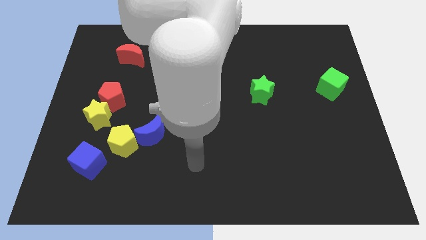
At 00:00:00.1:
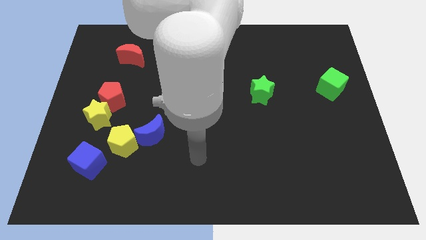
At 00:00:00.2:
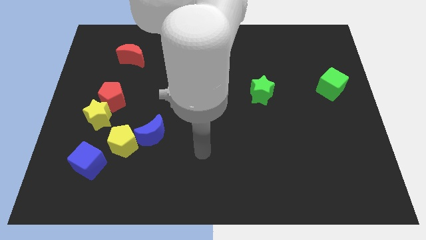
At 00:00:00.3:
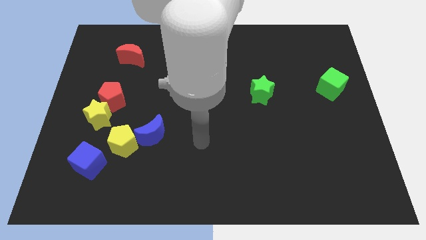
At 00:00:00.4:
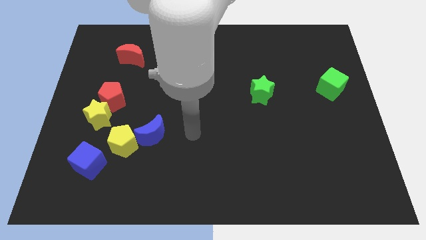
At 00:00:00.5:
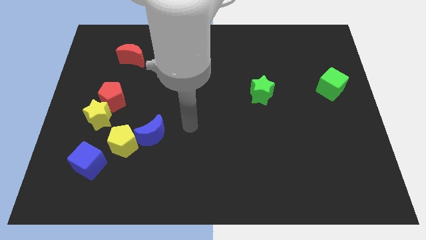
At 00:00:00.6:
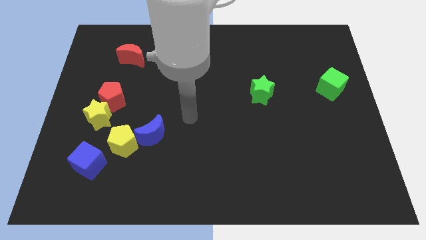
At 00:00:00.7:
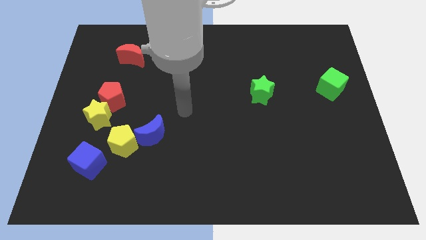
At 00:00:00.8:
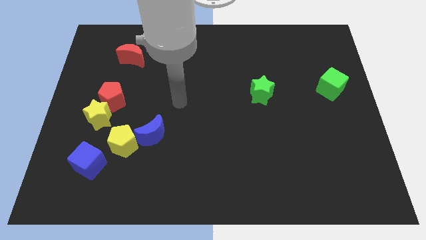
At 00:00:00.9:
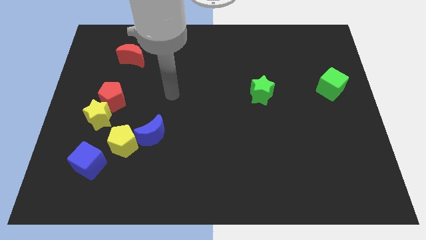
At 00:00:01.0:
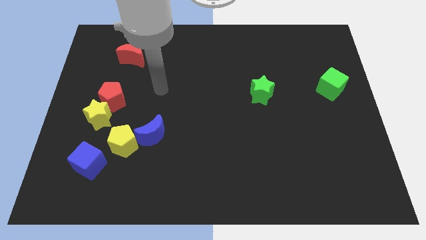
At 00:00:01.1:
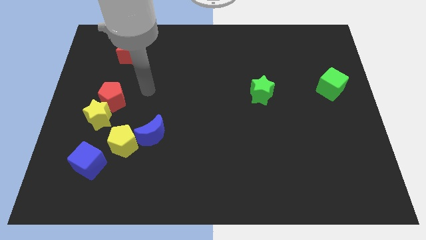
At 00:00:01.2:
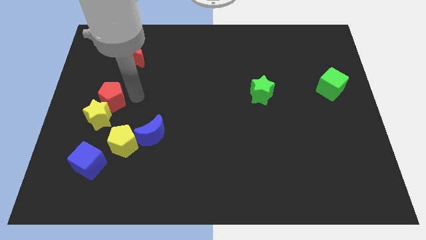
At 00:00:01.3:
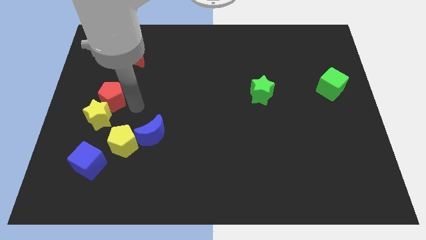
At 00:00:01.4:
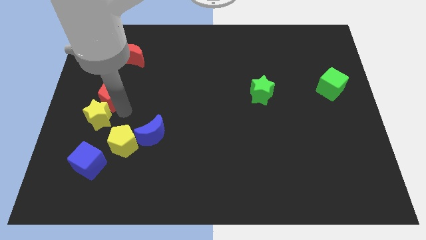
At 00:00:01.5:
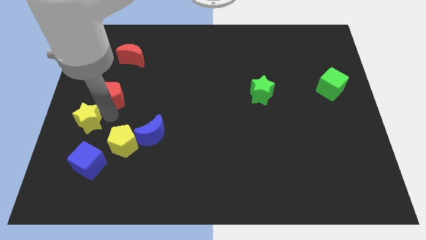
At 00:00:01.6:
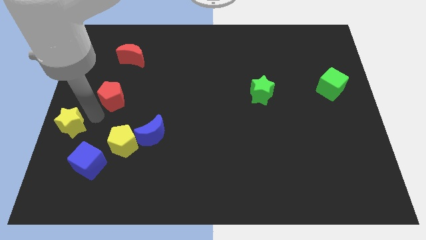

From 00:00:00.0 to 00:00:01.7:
separate the red pentagon from the yellow star

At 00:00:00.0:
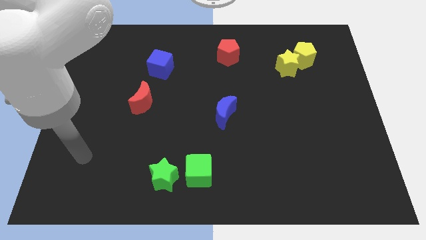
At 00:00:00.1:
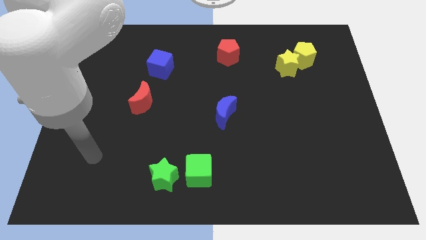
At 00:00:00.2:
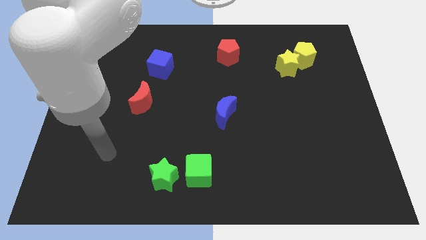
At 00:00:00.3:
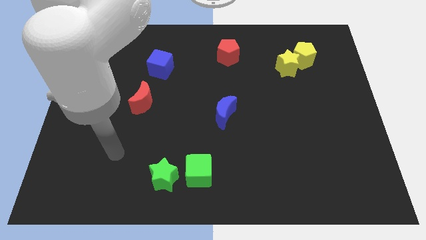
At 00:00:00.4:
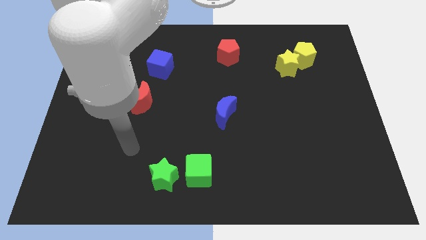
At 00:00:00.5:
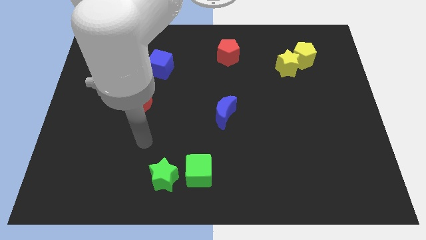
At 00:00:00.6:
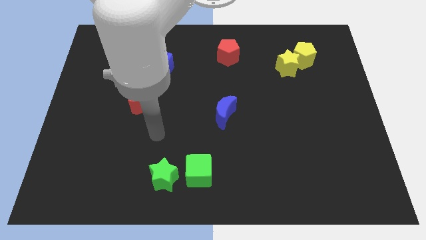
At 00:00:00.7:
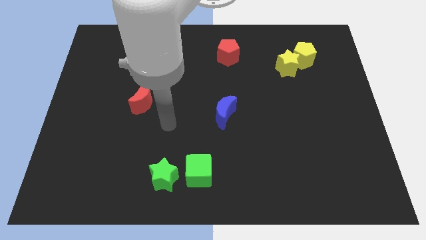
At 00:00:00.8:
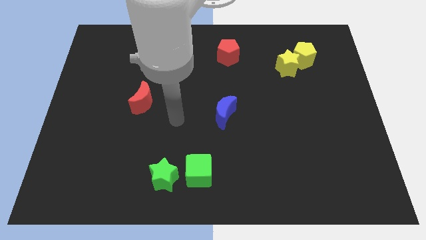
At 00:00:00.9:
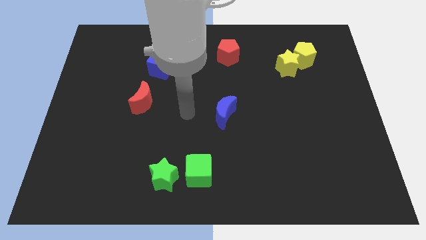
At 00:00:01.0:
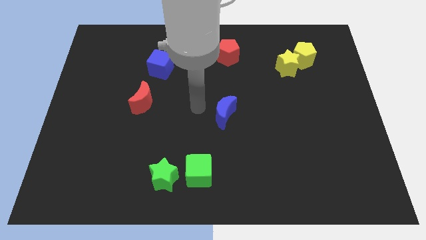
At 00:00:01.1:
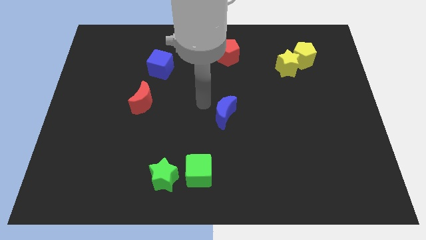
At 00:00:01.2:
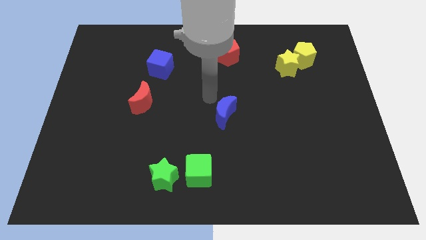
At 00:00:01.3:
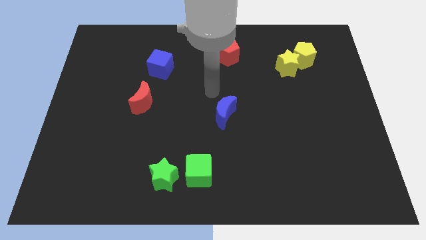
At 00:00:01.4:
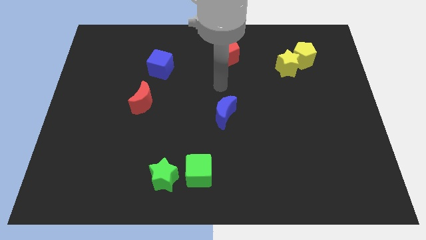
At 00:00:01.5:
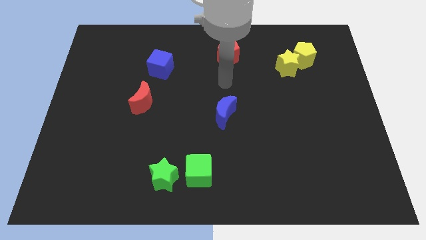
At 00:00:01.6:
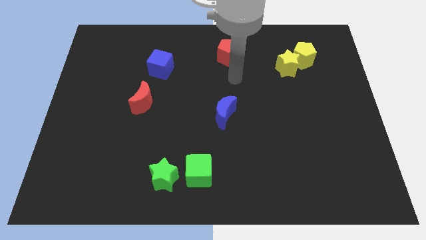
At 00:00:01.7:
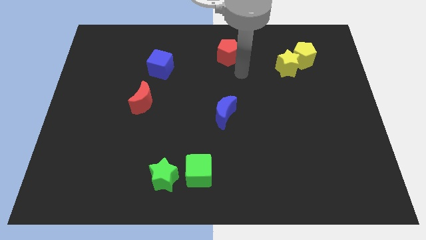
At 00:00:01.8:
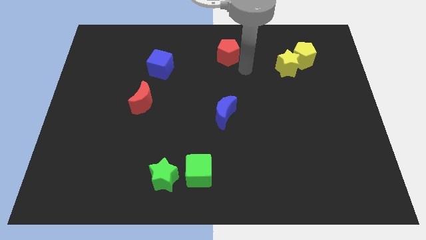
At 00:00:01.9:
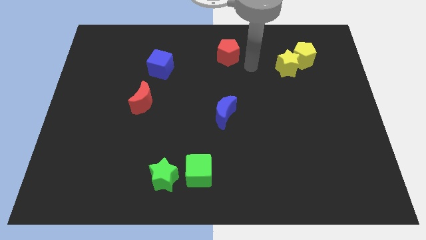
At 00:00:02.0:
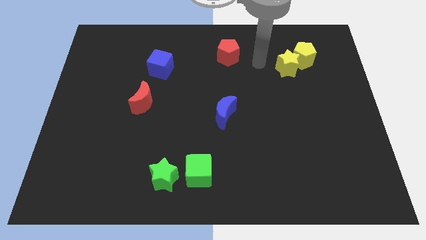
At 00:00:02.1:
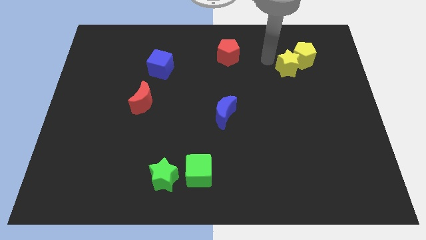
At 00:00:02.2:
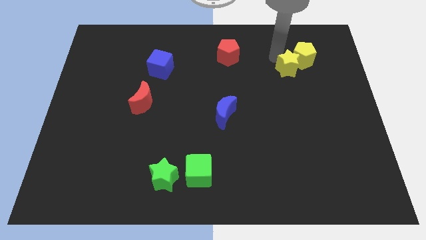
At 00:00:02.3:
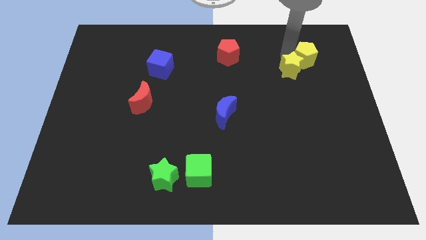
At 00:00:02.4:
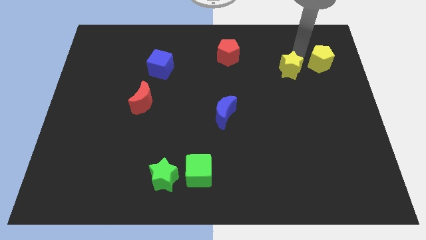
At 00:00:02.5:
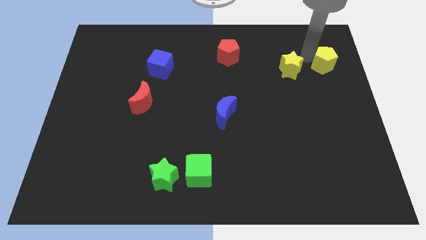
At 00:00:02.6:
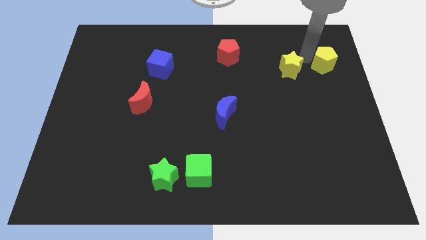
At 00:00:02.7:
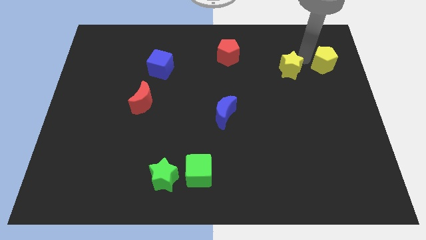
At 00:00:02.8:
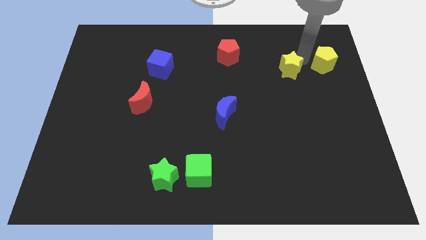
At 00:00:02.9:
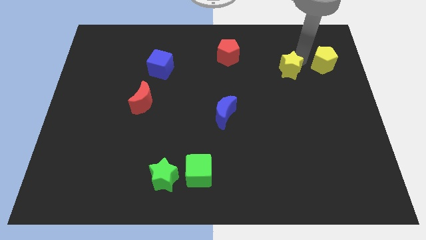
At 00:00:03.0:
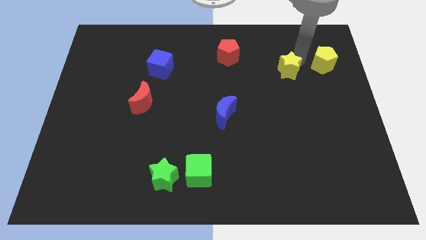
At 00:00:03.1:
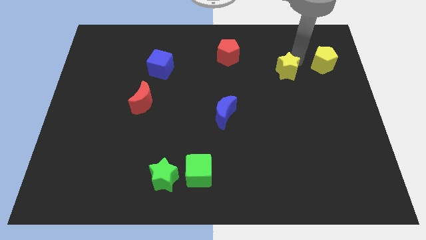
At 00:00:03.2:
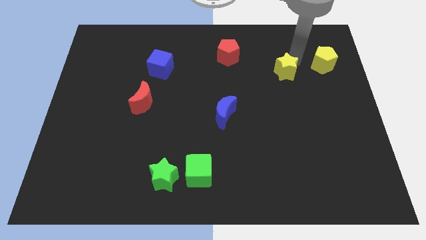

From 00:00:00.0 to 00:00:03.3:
move the yellow star away from the yellow pentagon

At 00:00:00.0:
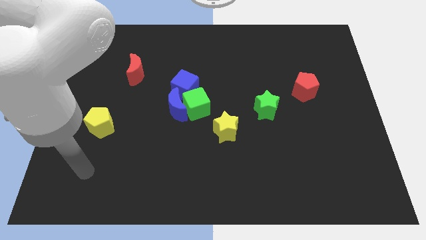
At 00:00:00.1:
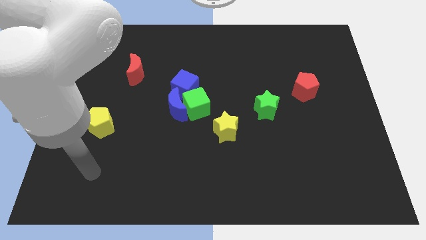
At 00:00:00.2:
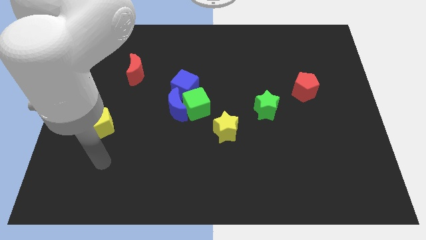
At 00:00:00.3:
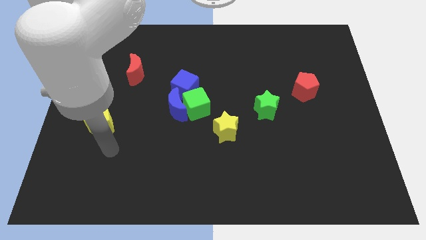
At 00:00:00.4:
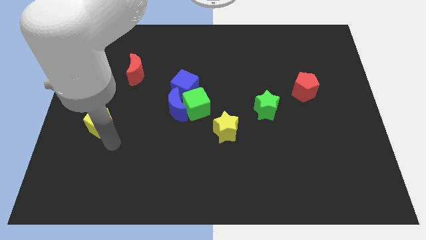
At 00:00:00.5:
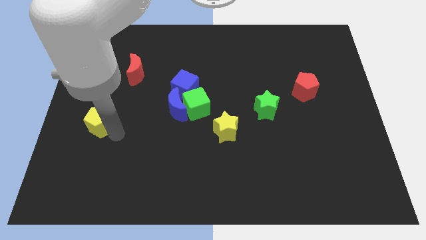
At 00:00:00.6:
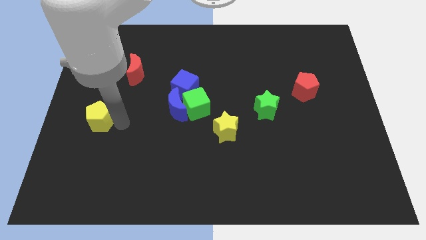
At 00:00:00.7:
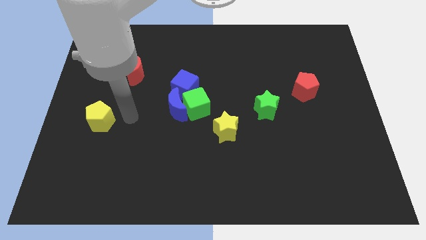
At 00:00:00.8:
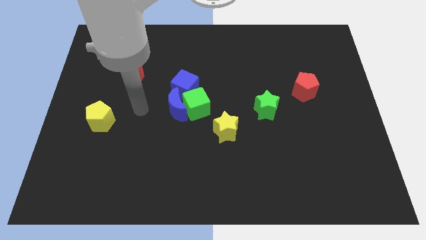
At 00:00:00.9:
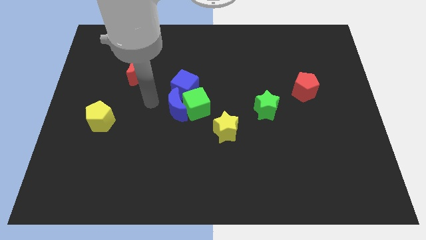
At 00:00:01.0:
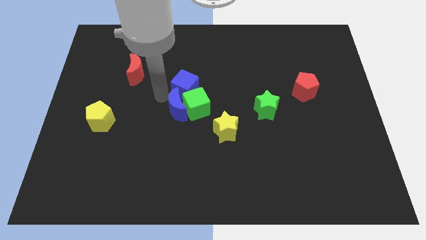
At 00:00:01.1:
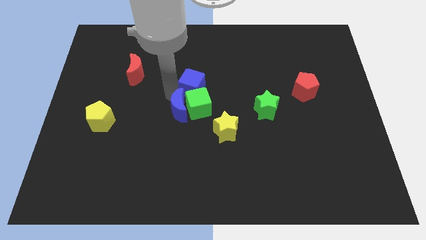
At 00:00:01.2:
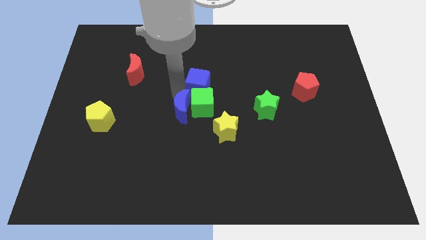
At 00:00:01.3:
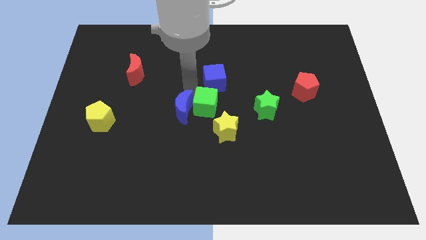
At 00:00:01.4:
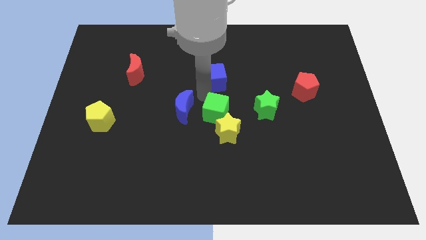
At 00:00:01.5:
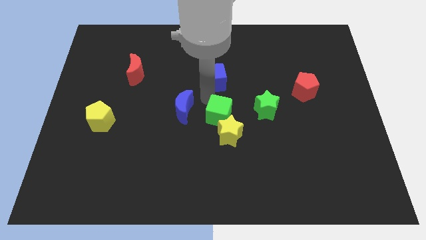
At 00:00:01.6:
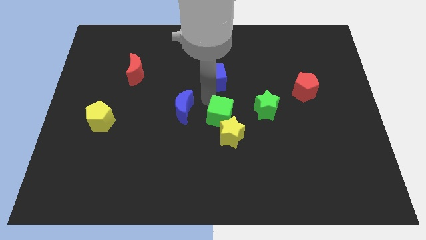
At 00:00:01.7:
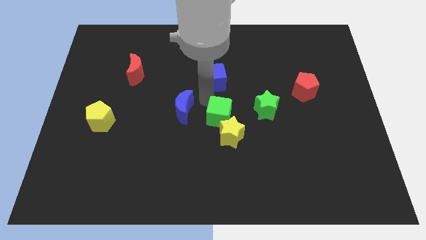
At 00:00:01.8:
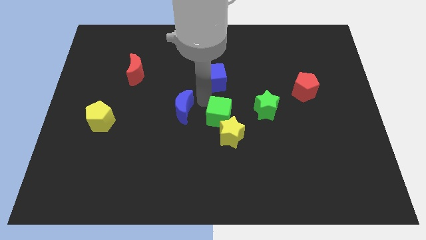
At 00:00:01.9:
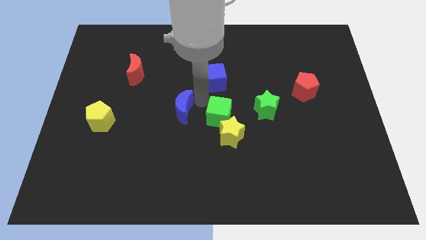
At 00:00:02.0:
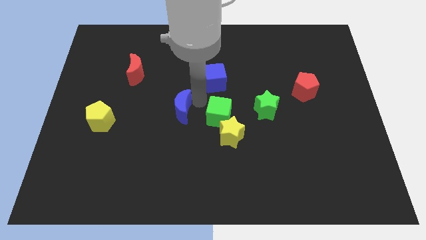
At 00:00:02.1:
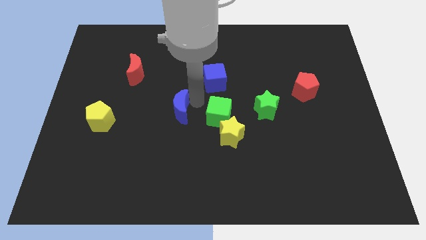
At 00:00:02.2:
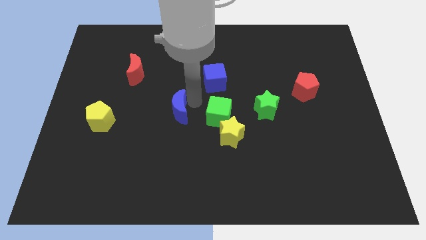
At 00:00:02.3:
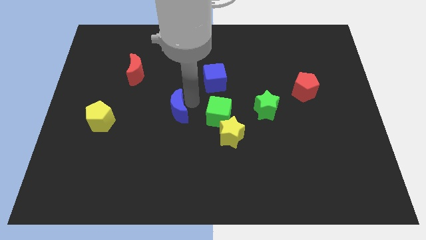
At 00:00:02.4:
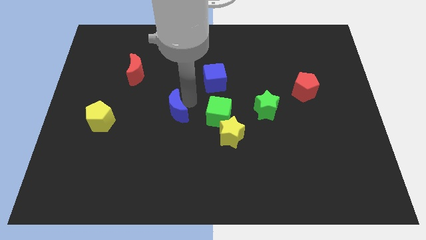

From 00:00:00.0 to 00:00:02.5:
pull the blue moon apart from the green cube and blue cube

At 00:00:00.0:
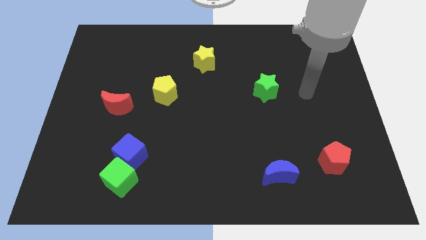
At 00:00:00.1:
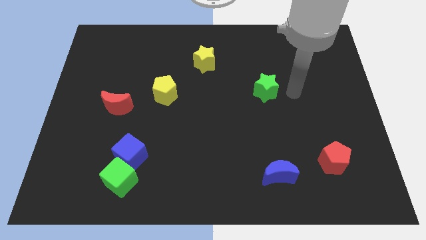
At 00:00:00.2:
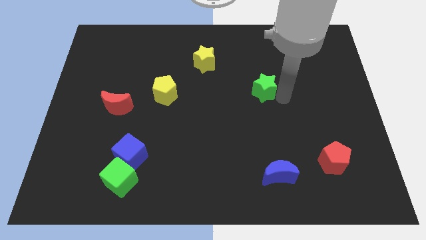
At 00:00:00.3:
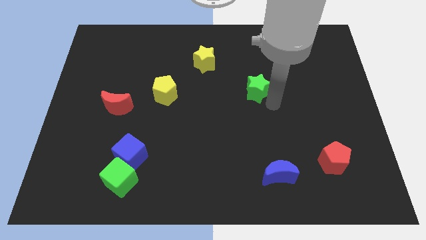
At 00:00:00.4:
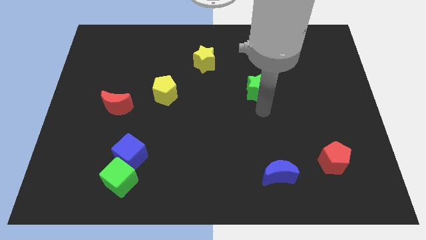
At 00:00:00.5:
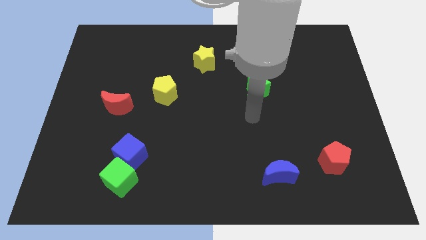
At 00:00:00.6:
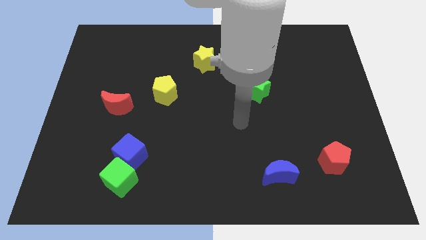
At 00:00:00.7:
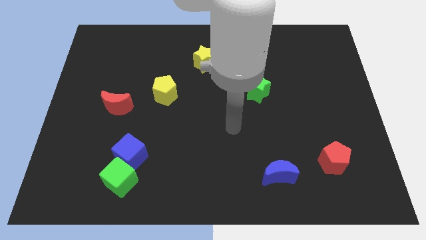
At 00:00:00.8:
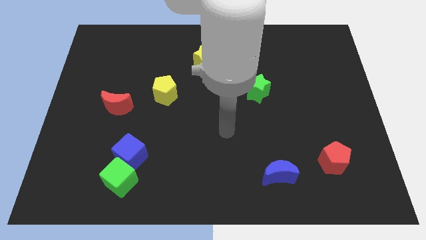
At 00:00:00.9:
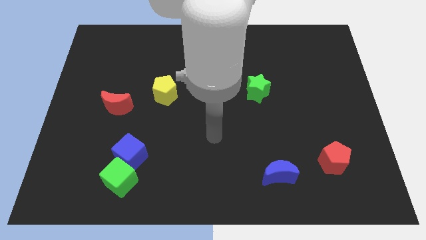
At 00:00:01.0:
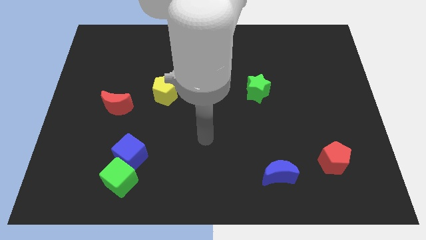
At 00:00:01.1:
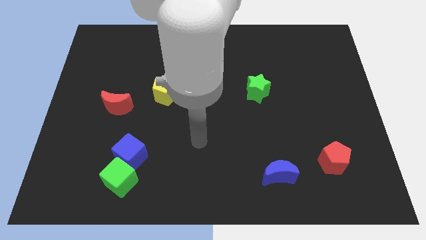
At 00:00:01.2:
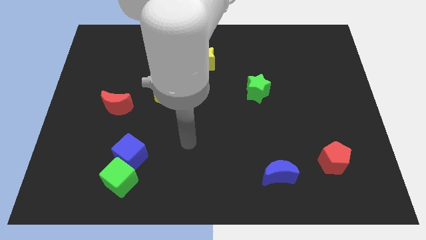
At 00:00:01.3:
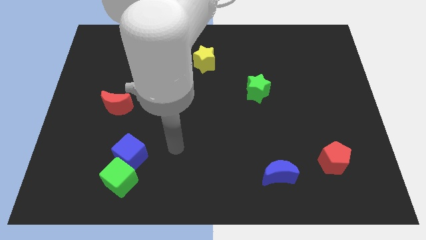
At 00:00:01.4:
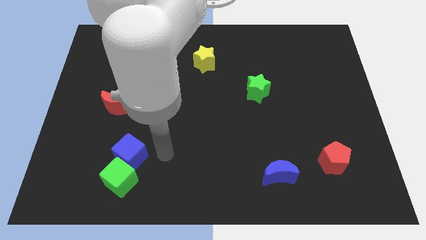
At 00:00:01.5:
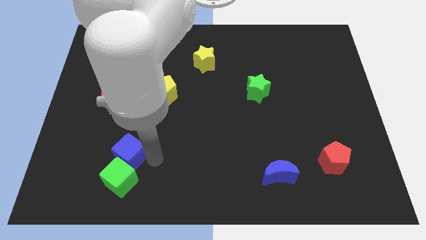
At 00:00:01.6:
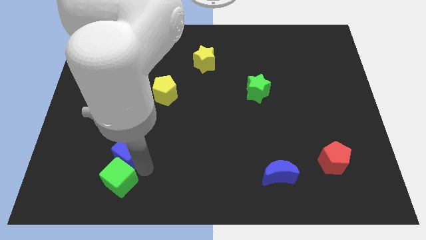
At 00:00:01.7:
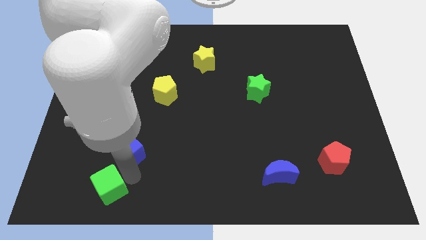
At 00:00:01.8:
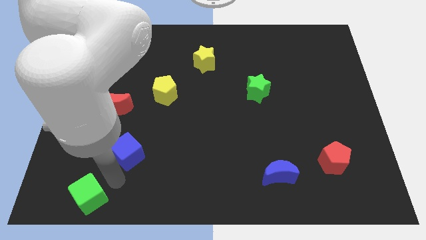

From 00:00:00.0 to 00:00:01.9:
separate the blue cube from the green cube
